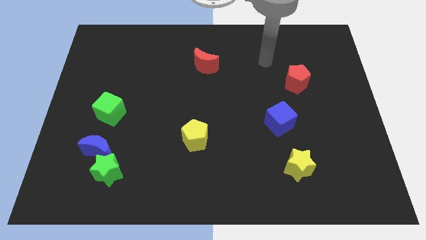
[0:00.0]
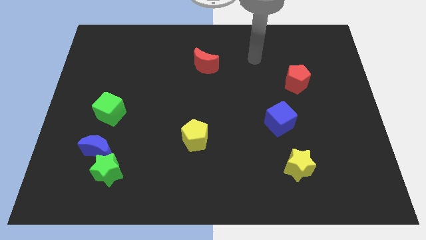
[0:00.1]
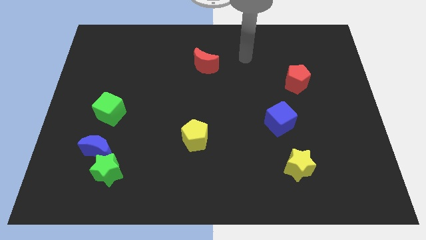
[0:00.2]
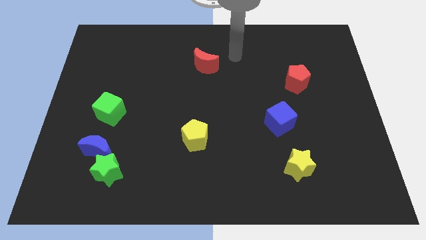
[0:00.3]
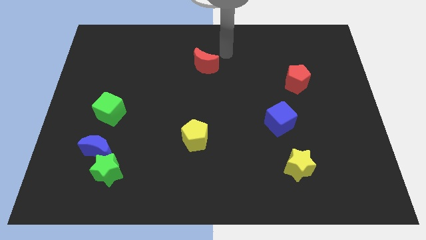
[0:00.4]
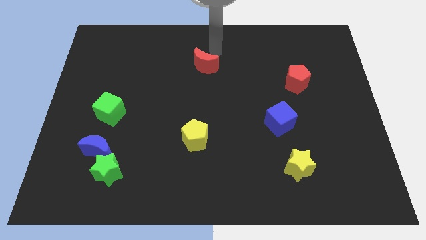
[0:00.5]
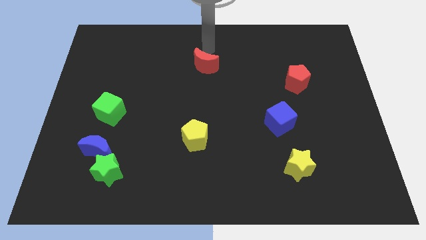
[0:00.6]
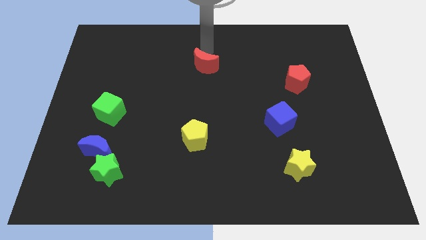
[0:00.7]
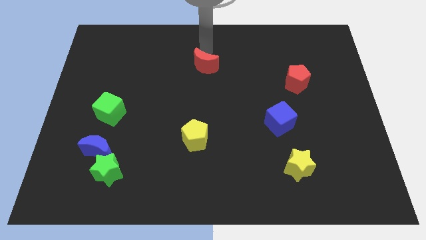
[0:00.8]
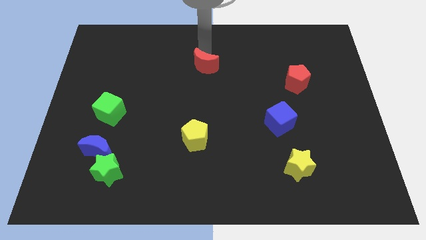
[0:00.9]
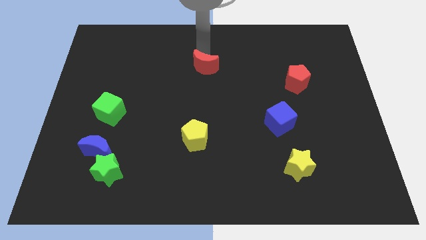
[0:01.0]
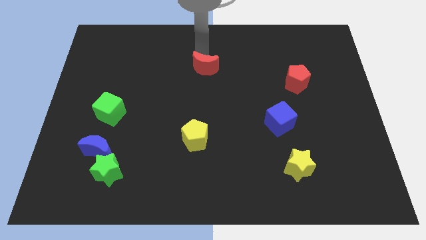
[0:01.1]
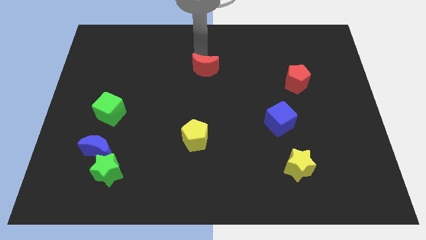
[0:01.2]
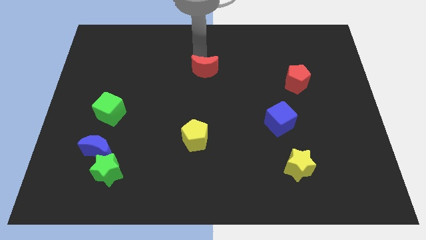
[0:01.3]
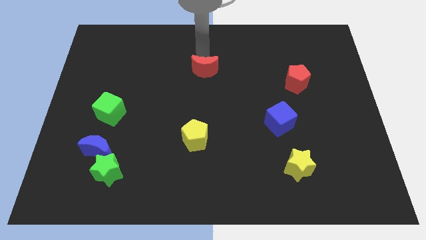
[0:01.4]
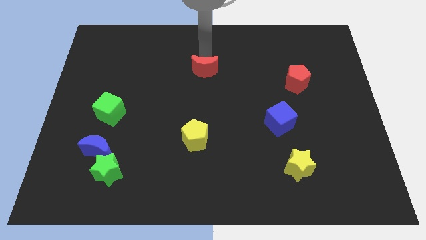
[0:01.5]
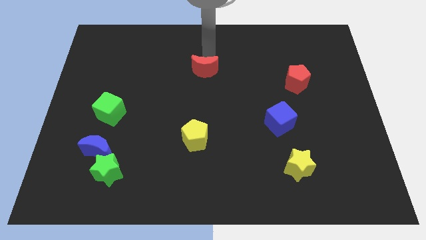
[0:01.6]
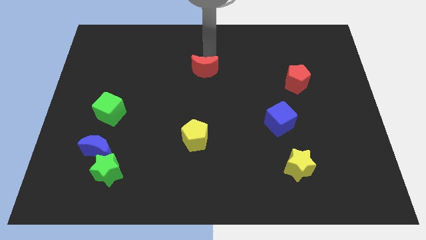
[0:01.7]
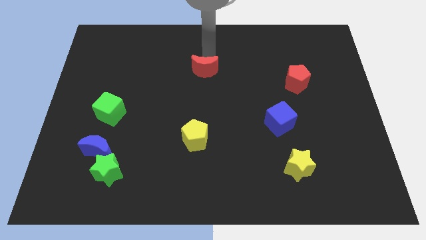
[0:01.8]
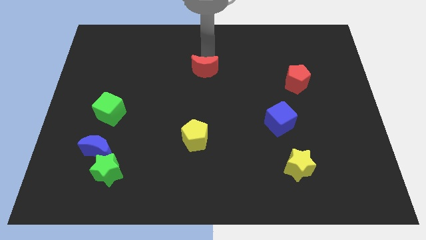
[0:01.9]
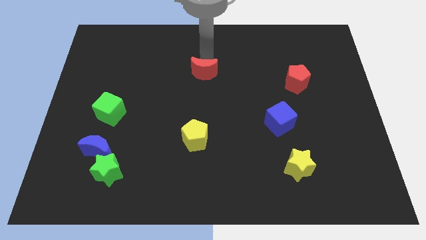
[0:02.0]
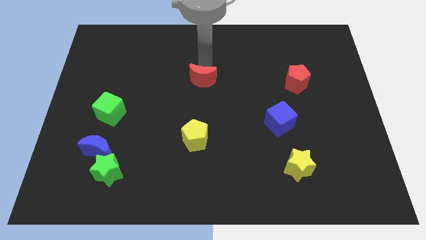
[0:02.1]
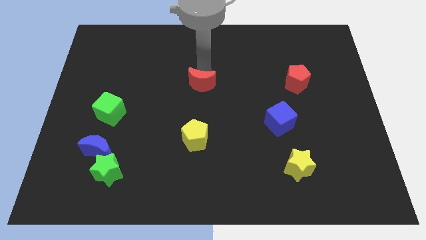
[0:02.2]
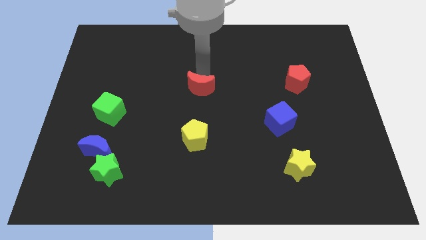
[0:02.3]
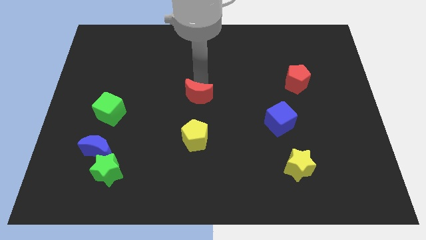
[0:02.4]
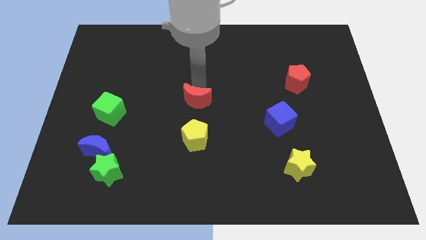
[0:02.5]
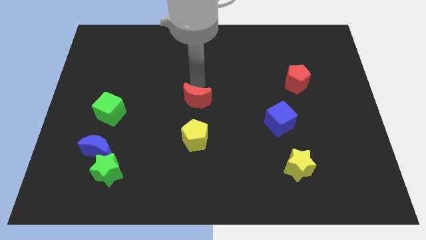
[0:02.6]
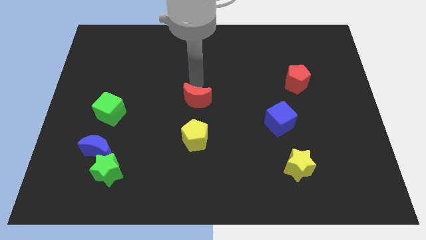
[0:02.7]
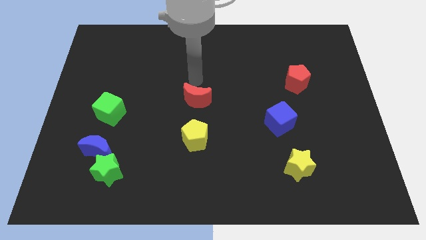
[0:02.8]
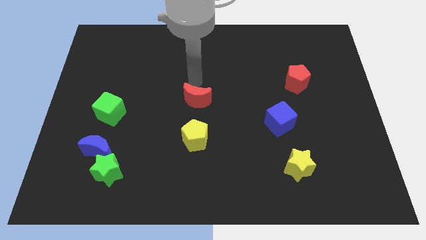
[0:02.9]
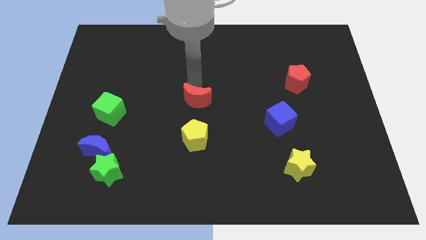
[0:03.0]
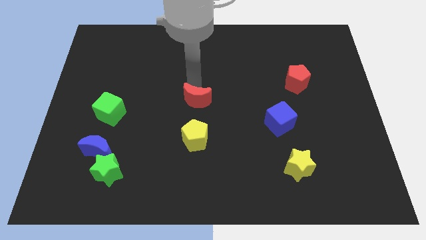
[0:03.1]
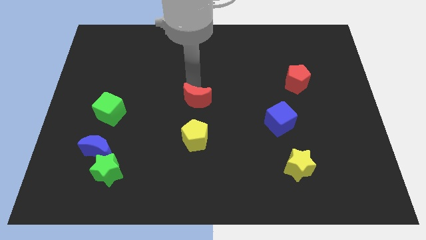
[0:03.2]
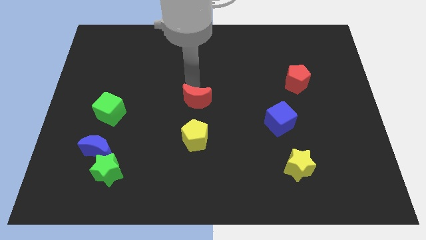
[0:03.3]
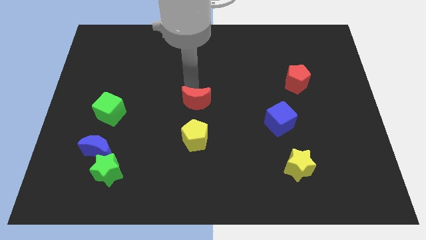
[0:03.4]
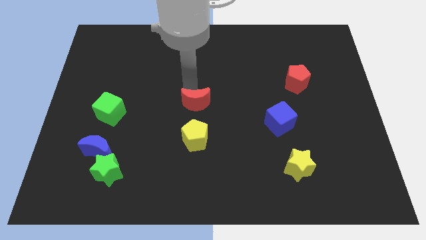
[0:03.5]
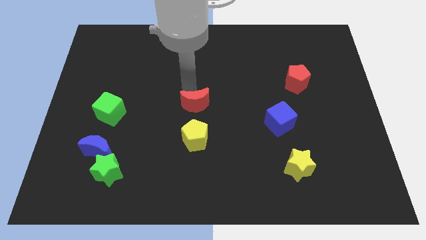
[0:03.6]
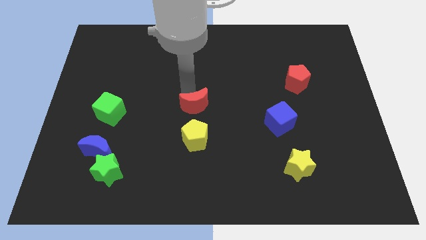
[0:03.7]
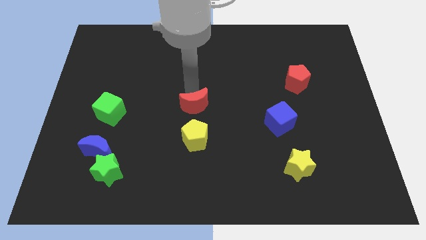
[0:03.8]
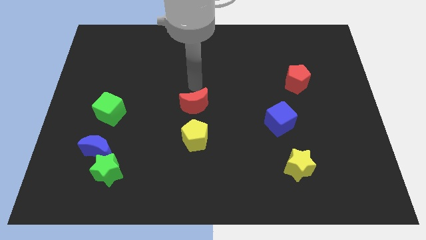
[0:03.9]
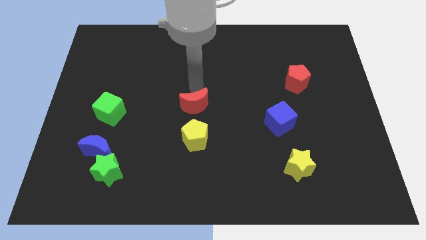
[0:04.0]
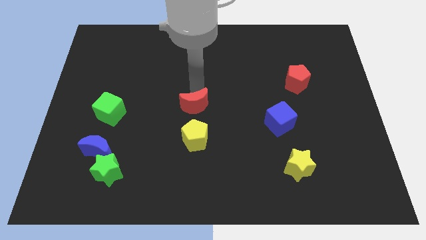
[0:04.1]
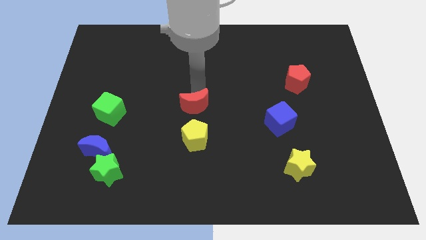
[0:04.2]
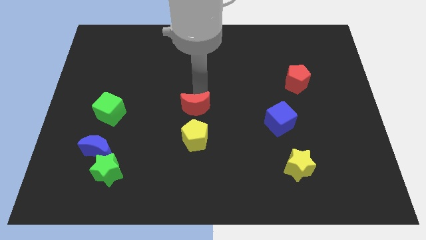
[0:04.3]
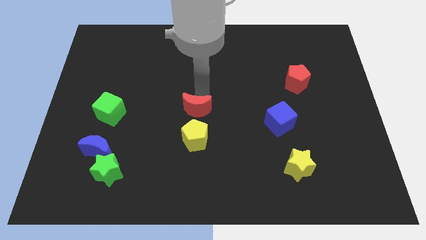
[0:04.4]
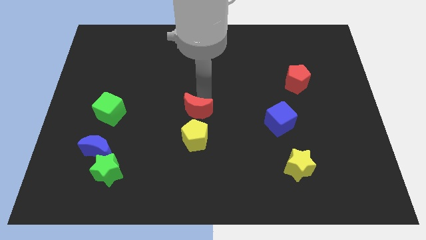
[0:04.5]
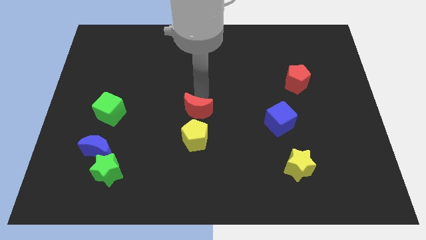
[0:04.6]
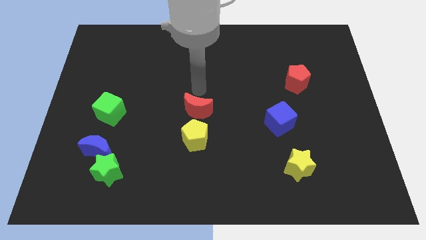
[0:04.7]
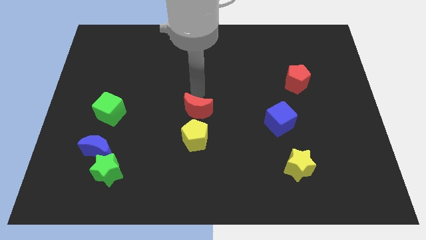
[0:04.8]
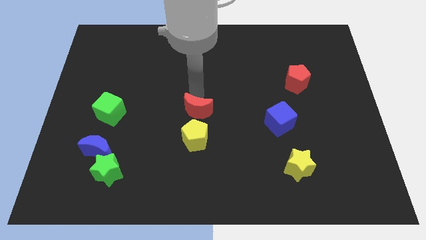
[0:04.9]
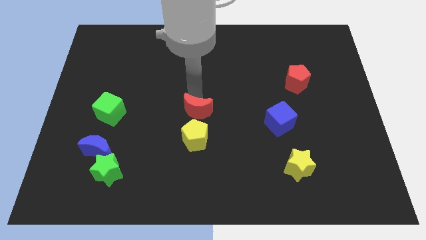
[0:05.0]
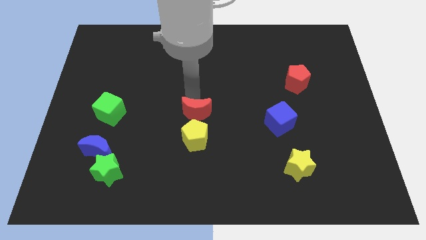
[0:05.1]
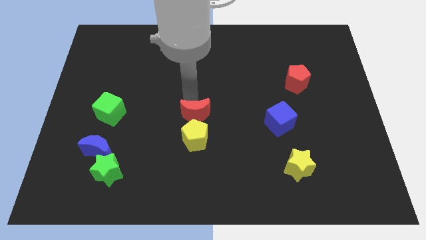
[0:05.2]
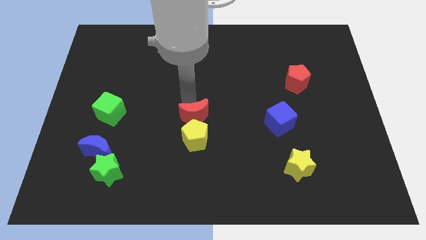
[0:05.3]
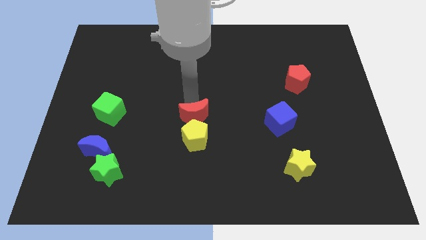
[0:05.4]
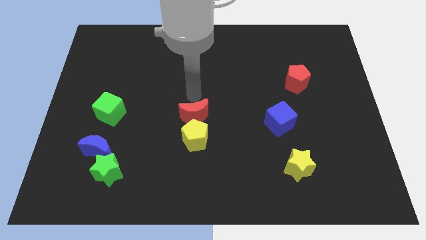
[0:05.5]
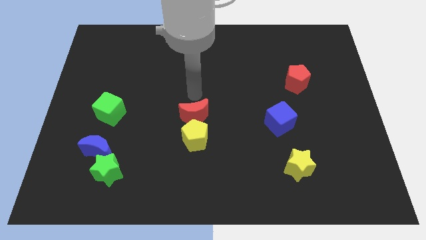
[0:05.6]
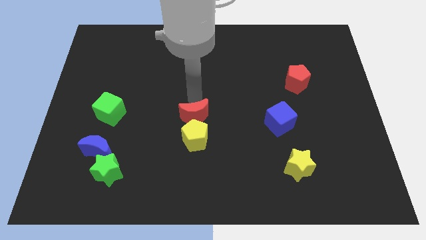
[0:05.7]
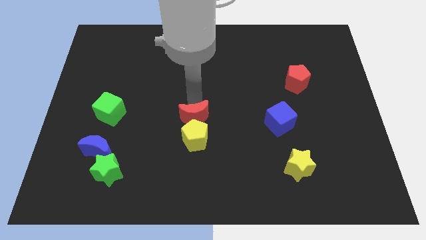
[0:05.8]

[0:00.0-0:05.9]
slide the red moon next to the yellow pentagon

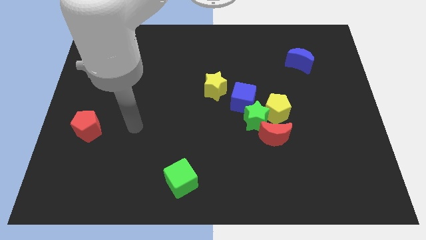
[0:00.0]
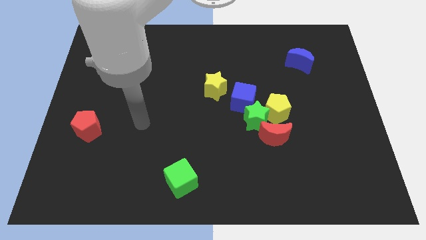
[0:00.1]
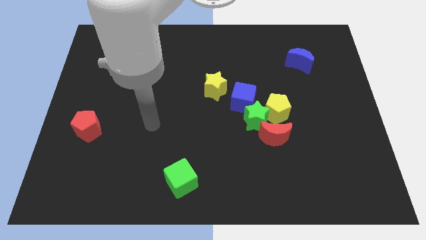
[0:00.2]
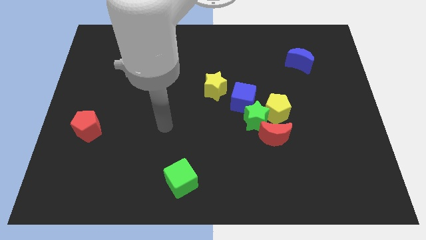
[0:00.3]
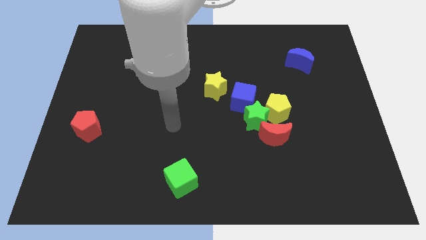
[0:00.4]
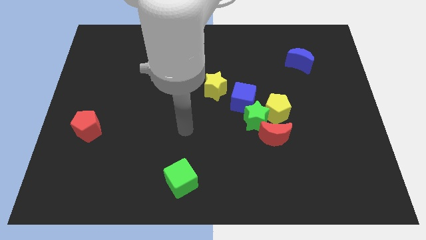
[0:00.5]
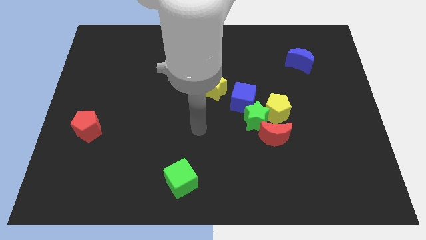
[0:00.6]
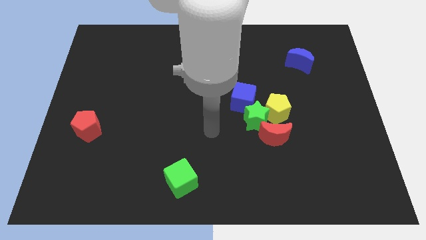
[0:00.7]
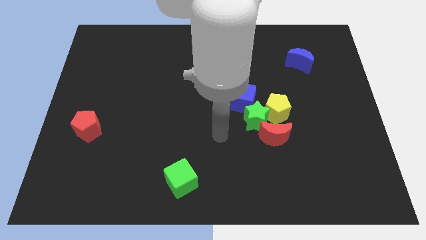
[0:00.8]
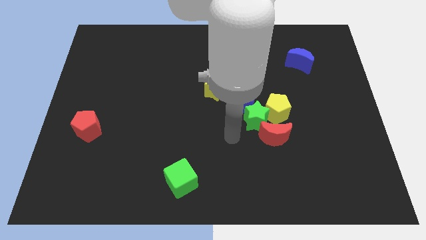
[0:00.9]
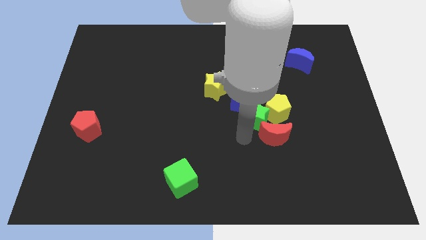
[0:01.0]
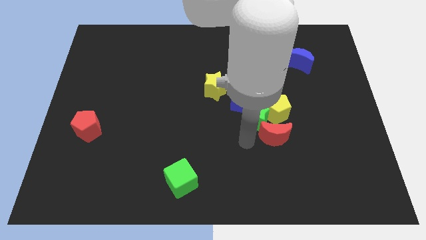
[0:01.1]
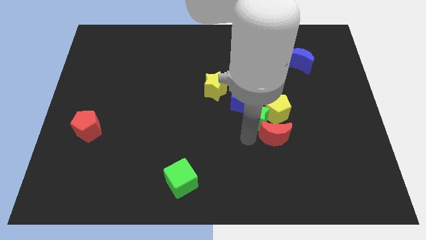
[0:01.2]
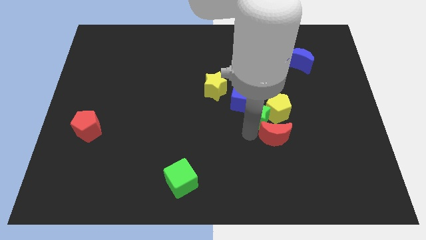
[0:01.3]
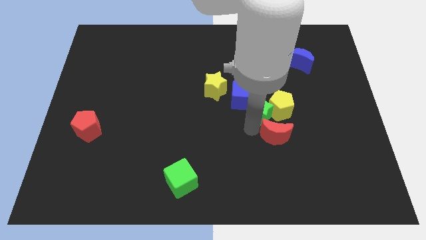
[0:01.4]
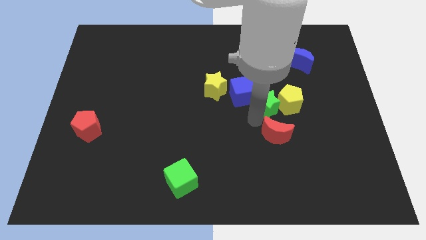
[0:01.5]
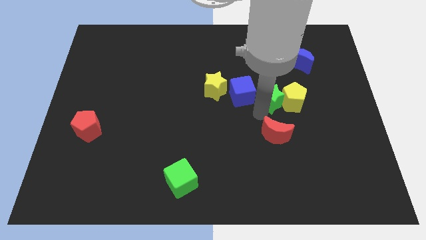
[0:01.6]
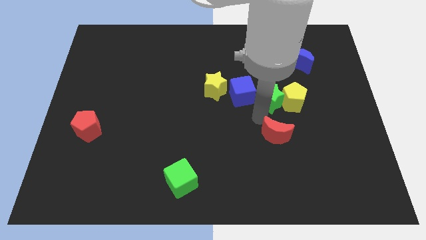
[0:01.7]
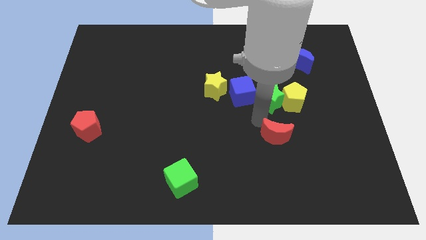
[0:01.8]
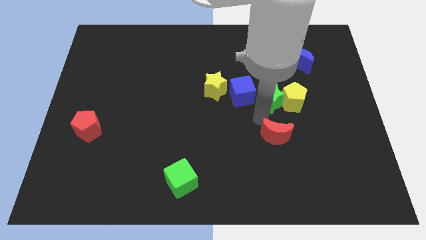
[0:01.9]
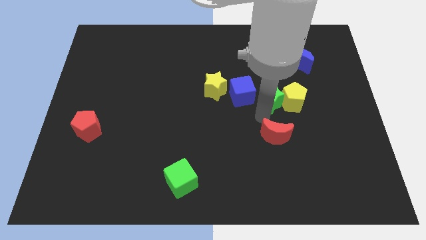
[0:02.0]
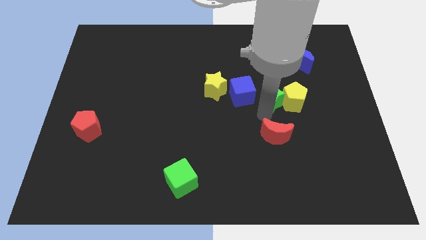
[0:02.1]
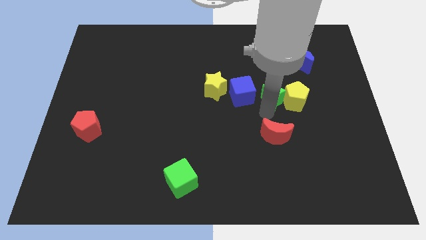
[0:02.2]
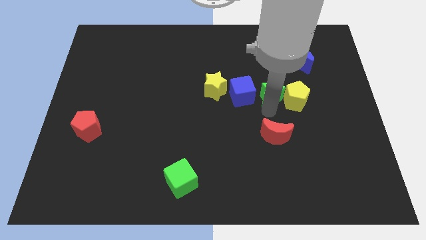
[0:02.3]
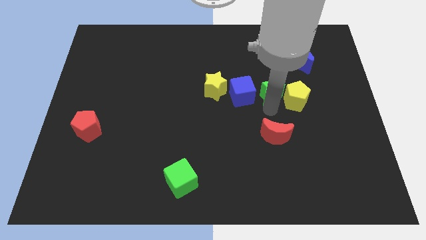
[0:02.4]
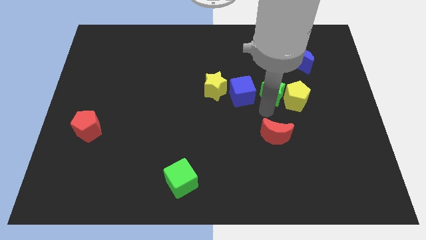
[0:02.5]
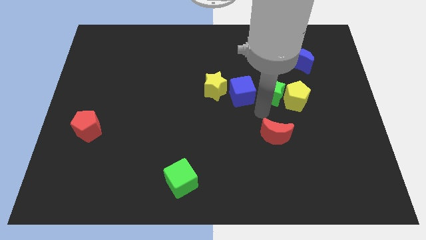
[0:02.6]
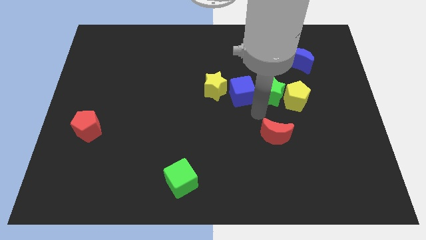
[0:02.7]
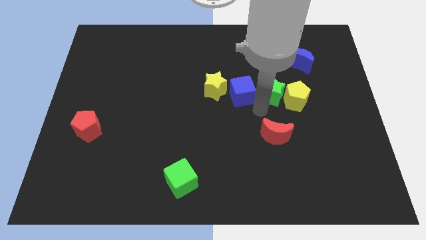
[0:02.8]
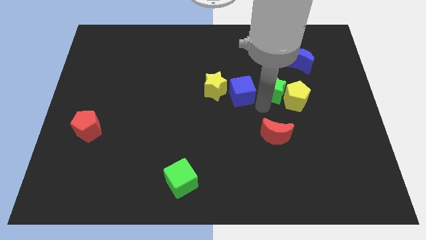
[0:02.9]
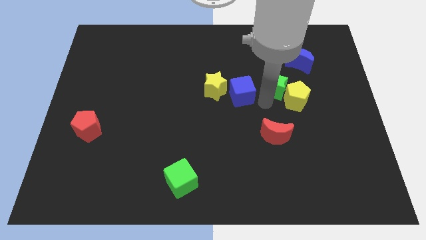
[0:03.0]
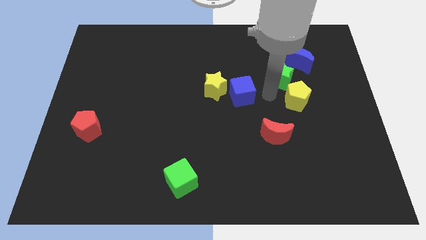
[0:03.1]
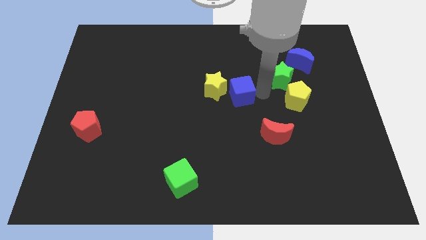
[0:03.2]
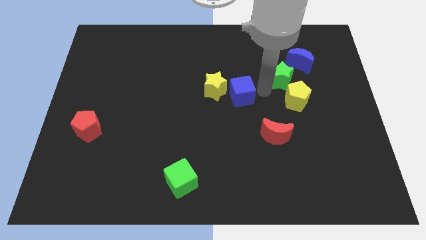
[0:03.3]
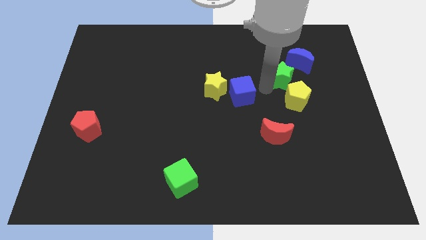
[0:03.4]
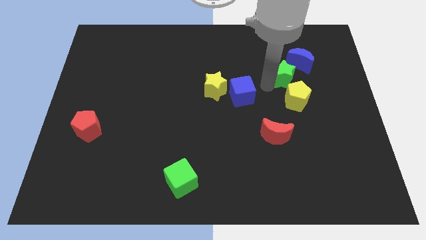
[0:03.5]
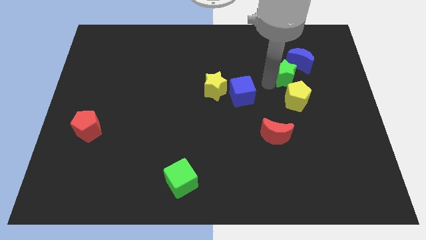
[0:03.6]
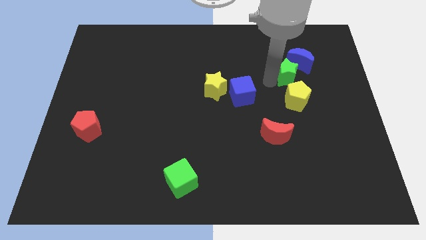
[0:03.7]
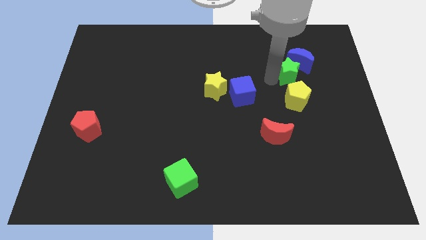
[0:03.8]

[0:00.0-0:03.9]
move the green star close to the blue moon
